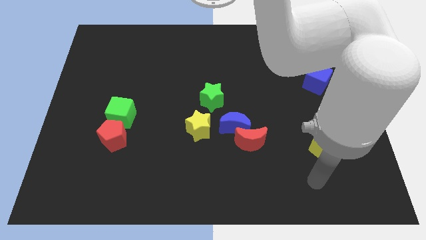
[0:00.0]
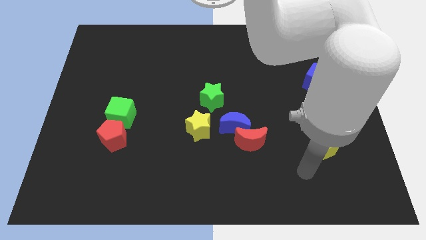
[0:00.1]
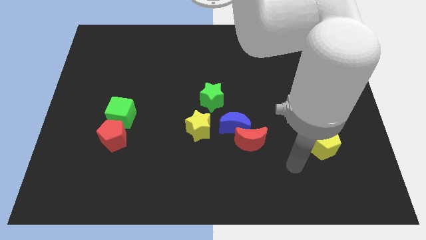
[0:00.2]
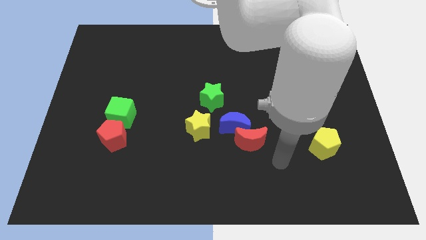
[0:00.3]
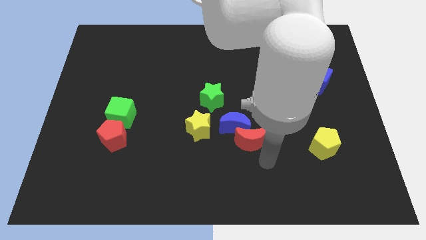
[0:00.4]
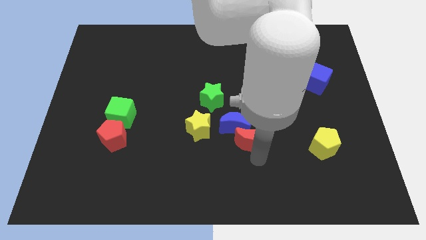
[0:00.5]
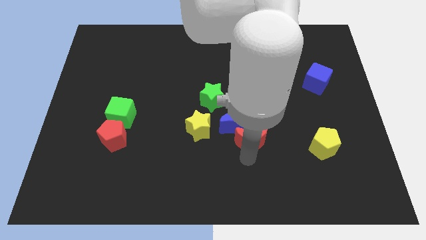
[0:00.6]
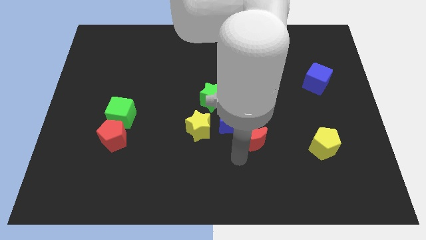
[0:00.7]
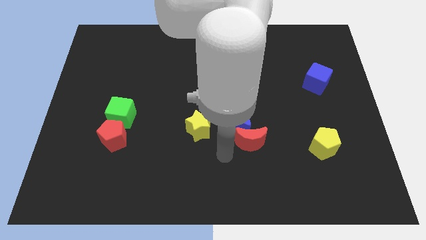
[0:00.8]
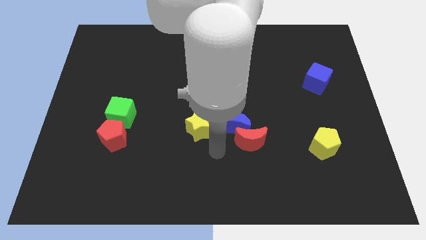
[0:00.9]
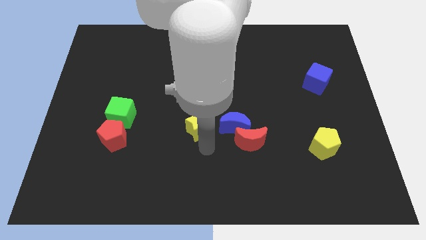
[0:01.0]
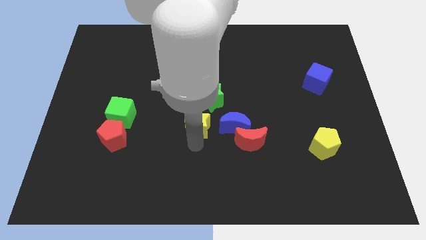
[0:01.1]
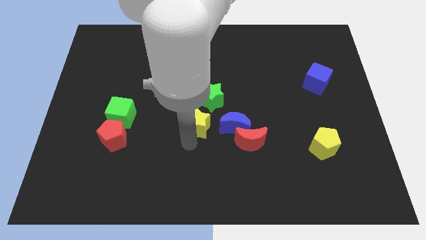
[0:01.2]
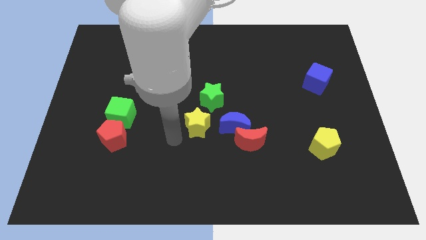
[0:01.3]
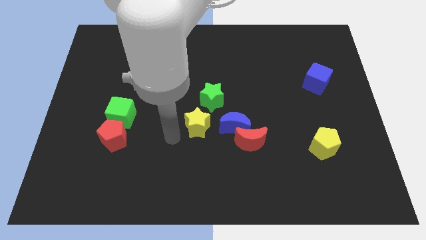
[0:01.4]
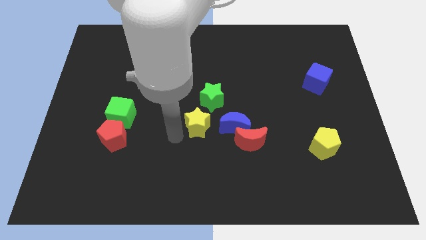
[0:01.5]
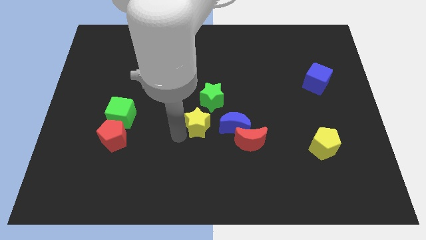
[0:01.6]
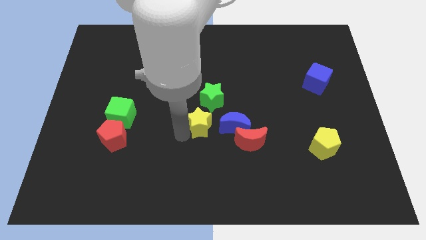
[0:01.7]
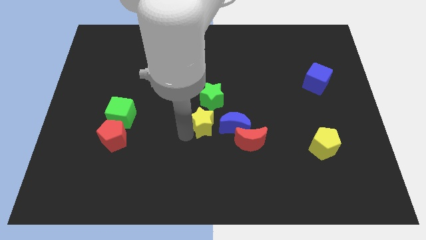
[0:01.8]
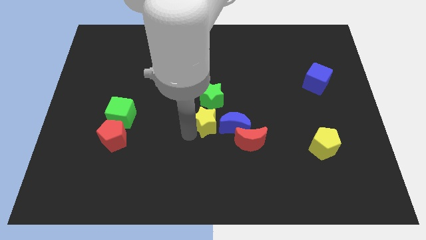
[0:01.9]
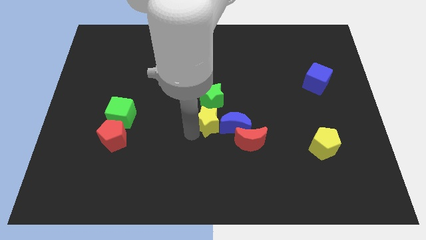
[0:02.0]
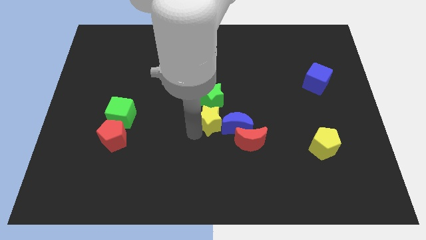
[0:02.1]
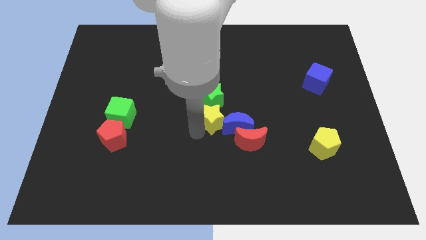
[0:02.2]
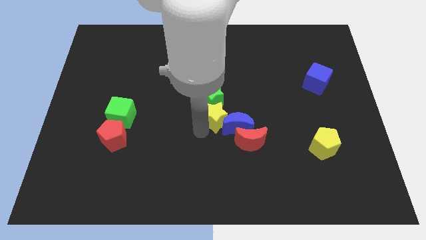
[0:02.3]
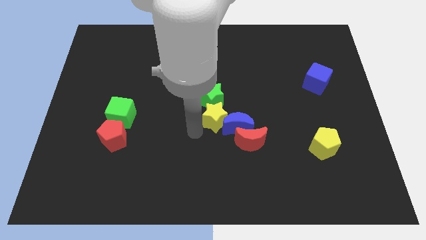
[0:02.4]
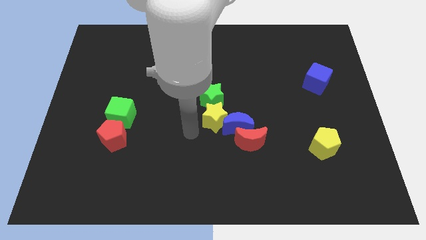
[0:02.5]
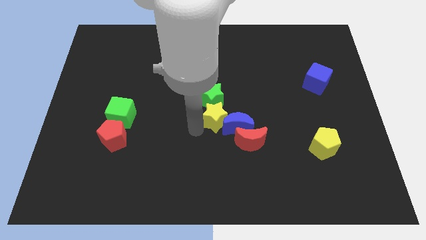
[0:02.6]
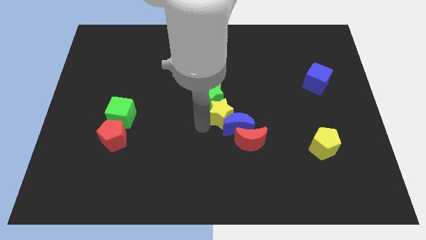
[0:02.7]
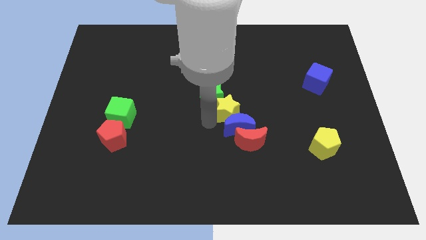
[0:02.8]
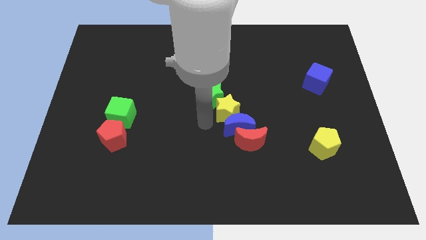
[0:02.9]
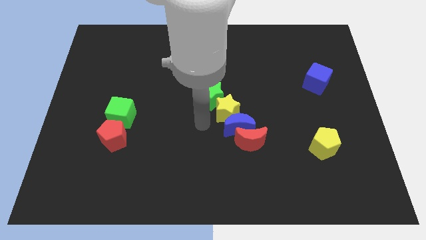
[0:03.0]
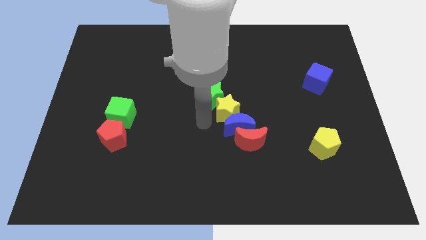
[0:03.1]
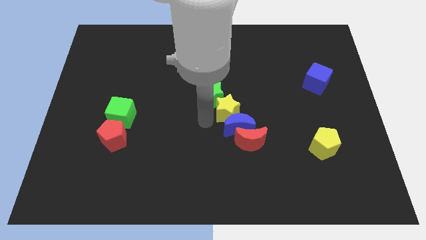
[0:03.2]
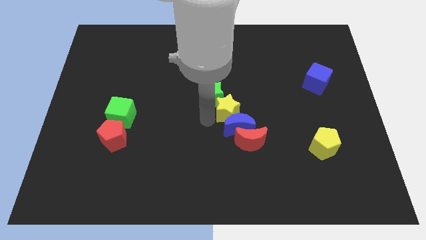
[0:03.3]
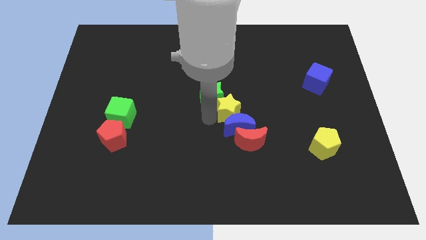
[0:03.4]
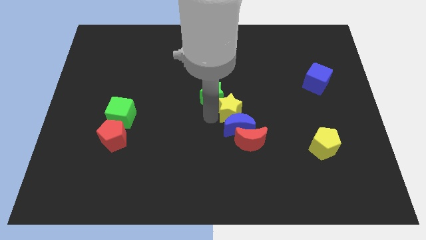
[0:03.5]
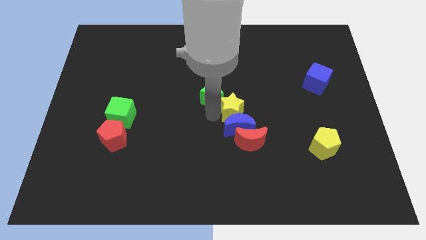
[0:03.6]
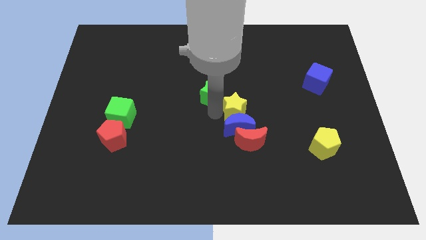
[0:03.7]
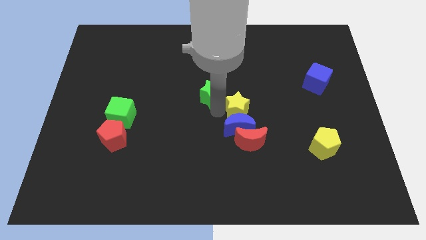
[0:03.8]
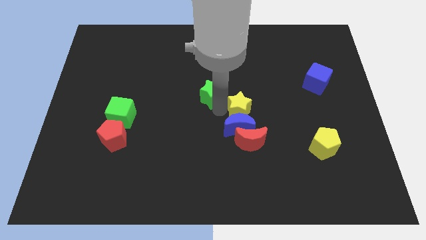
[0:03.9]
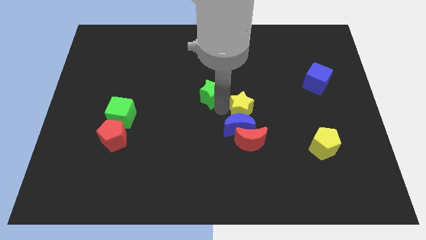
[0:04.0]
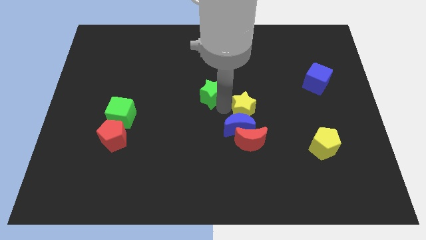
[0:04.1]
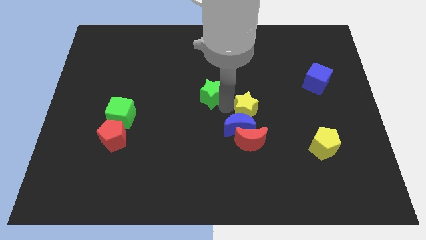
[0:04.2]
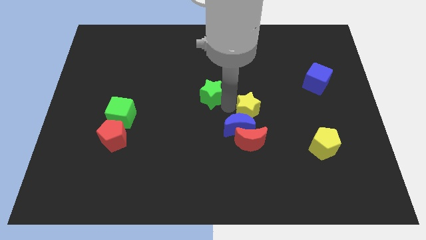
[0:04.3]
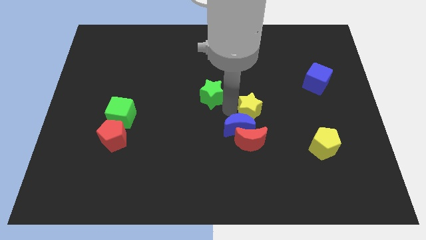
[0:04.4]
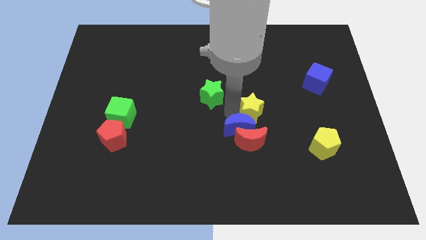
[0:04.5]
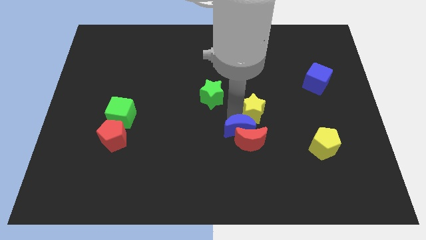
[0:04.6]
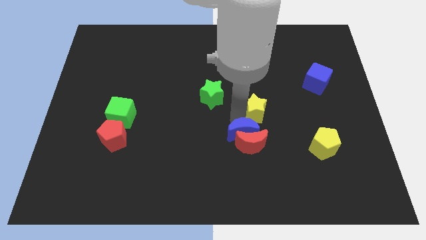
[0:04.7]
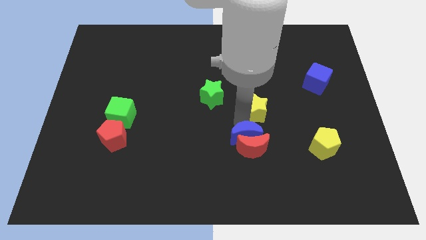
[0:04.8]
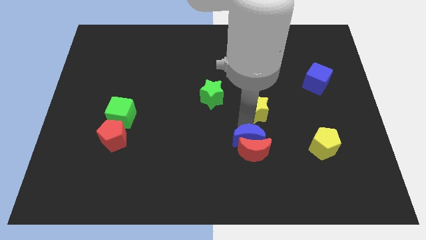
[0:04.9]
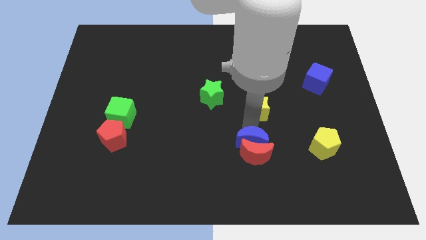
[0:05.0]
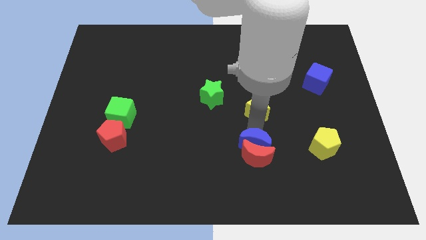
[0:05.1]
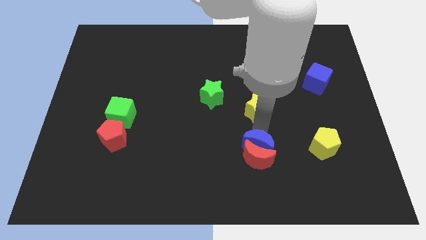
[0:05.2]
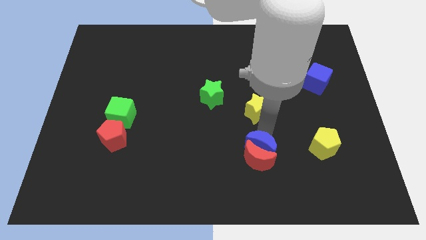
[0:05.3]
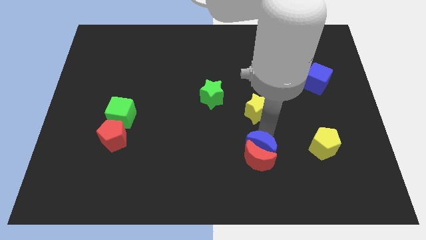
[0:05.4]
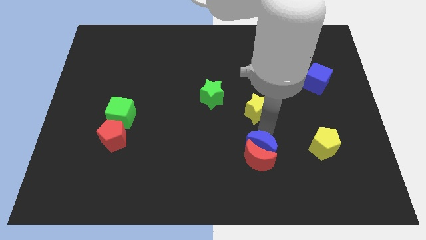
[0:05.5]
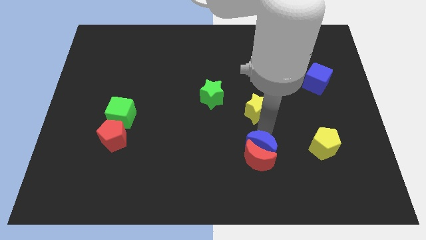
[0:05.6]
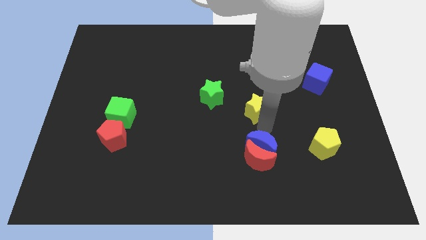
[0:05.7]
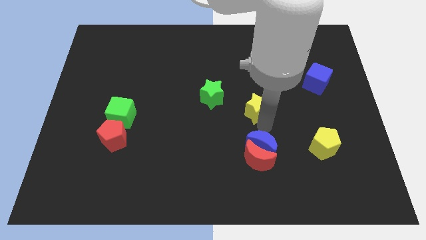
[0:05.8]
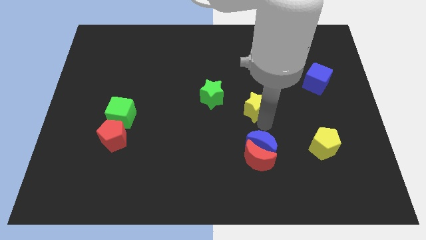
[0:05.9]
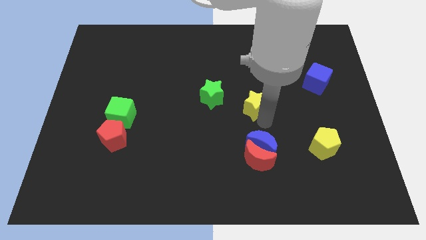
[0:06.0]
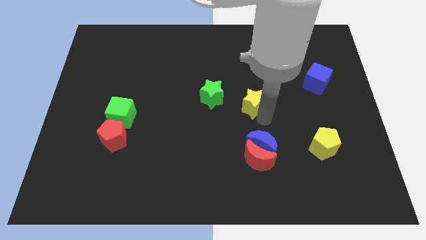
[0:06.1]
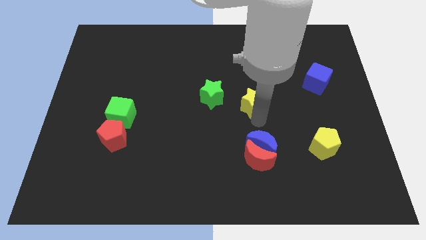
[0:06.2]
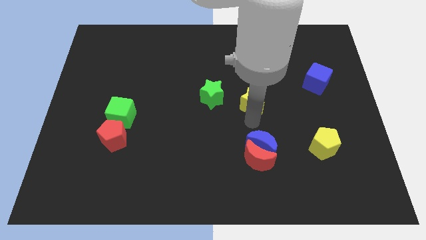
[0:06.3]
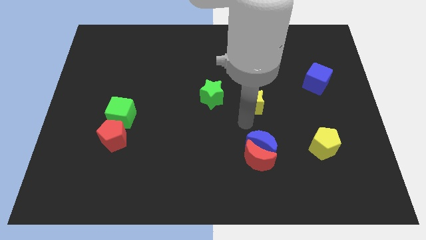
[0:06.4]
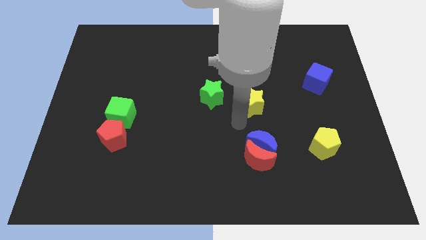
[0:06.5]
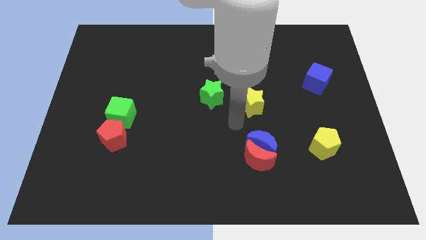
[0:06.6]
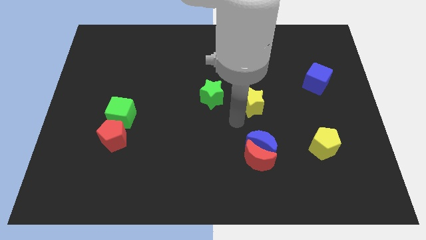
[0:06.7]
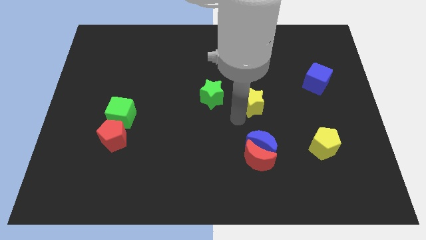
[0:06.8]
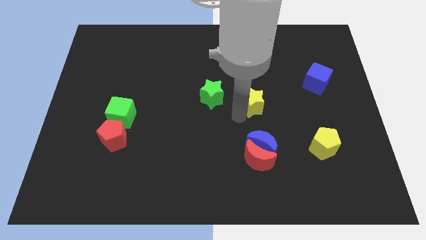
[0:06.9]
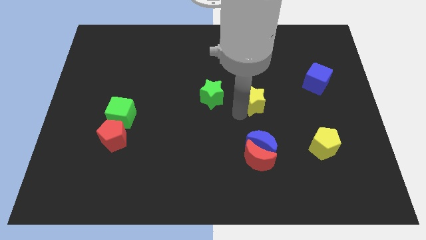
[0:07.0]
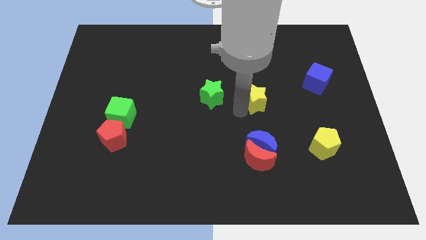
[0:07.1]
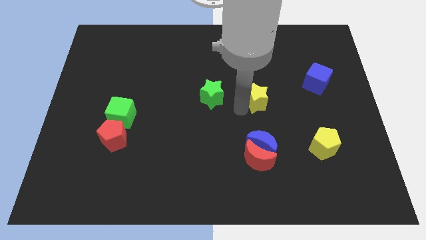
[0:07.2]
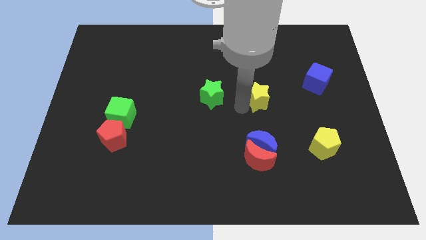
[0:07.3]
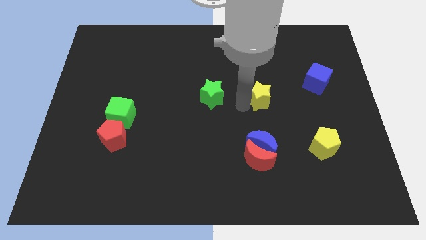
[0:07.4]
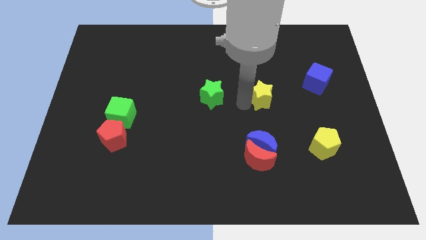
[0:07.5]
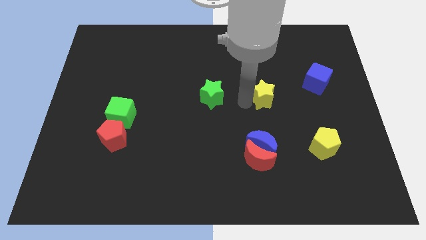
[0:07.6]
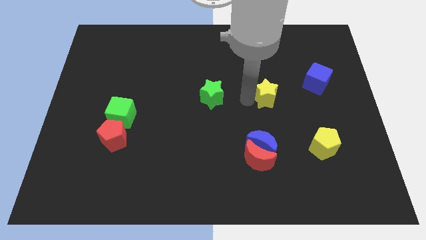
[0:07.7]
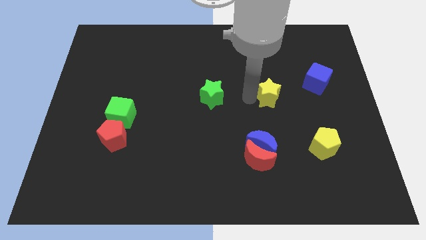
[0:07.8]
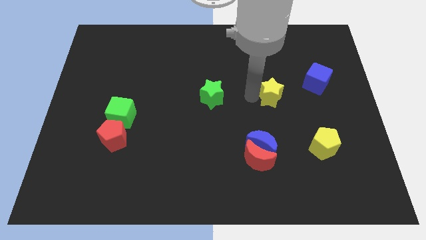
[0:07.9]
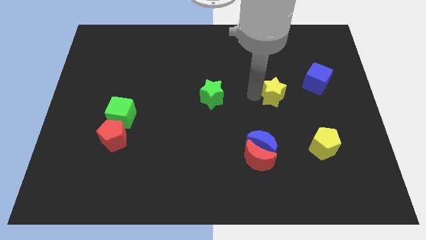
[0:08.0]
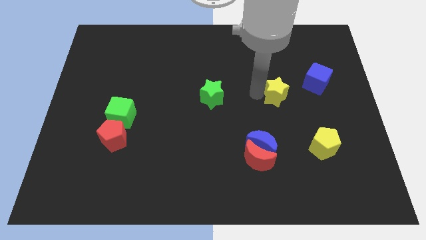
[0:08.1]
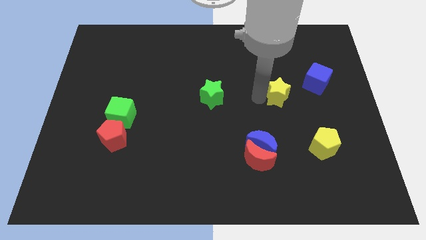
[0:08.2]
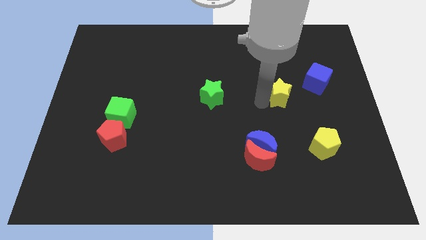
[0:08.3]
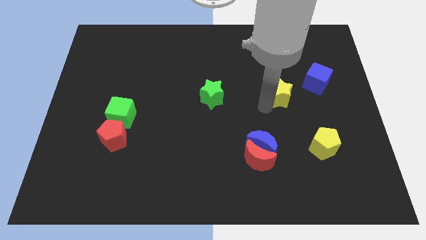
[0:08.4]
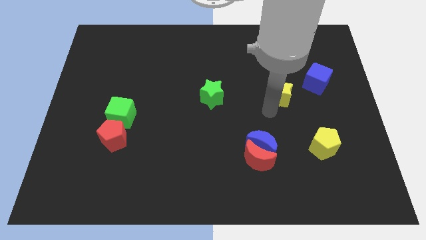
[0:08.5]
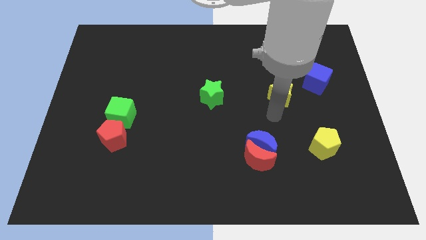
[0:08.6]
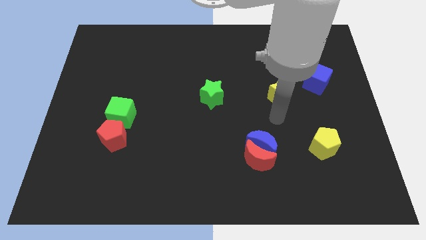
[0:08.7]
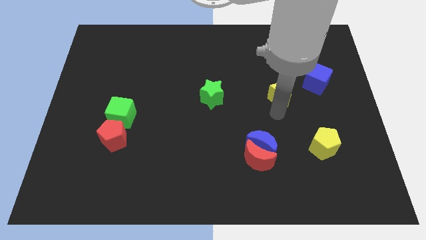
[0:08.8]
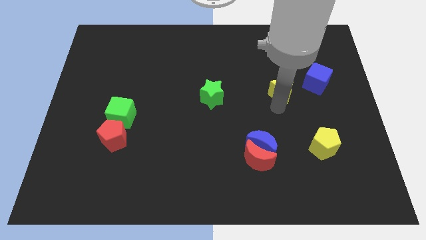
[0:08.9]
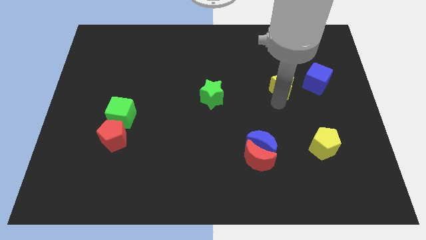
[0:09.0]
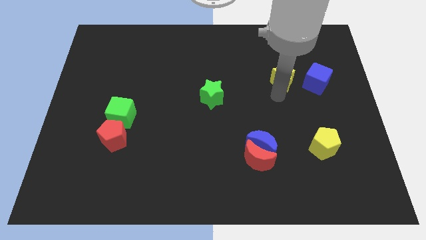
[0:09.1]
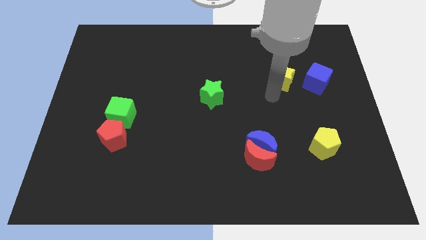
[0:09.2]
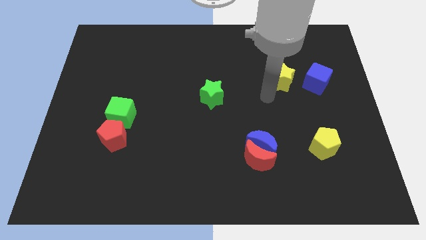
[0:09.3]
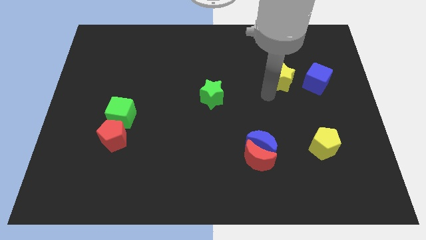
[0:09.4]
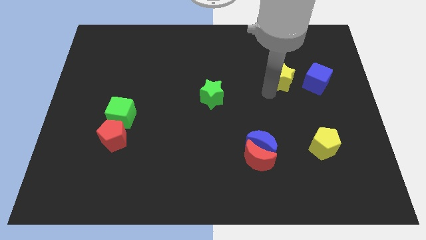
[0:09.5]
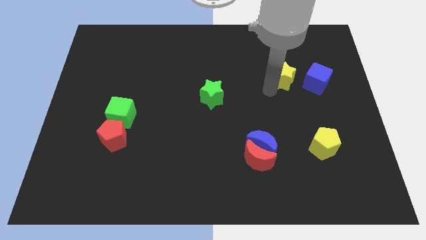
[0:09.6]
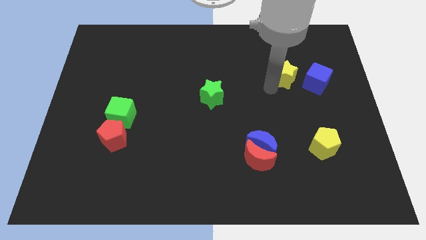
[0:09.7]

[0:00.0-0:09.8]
slide the yellow star to the top left side of the blue cube
